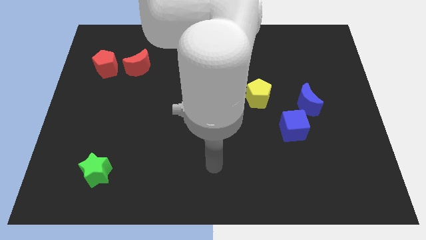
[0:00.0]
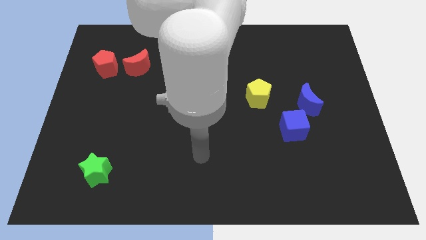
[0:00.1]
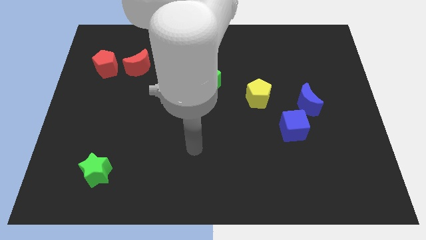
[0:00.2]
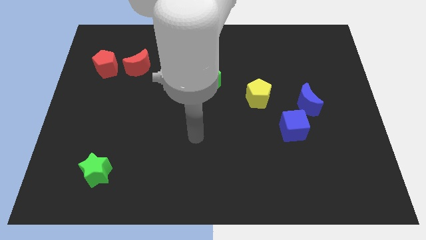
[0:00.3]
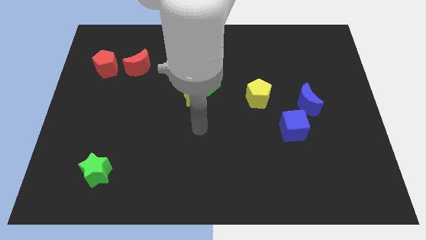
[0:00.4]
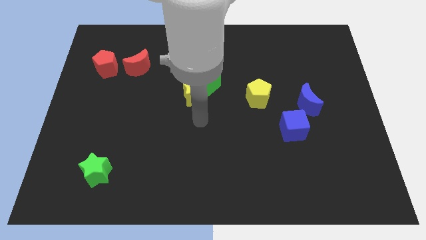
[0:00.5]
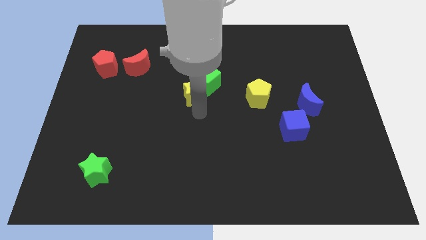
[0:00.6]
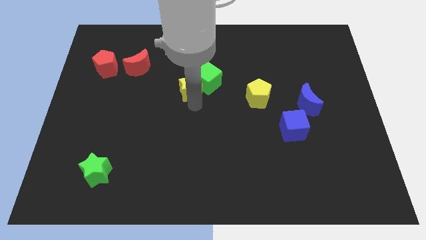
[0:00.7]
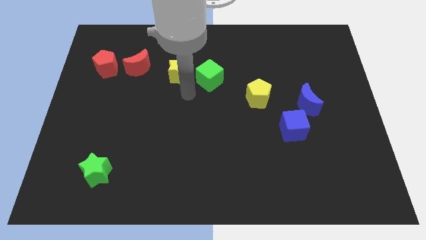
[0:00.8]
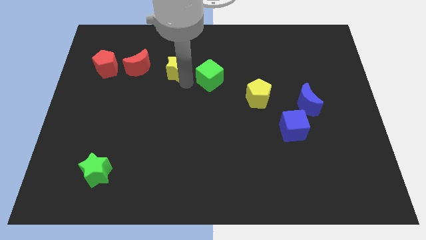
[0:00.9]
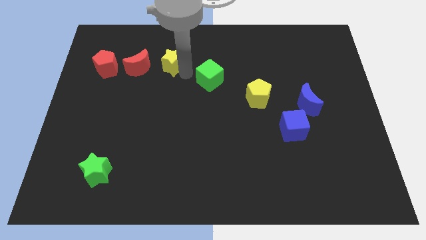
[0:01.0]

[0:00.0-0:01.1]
move the green cube away from the yellow star

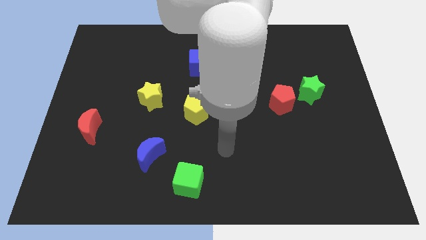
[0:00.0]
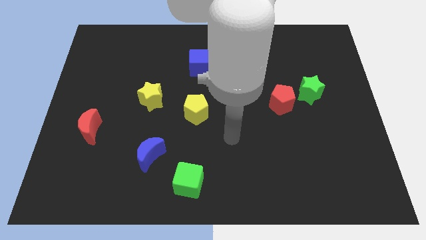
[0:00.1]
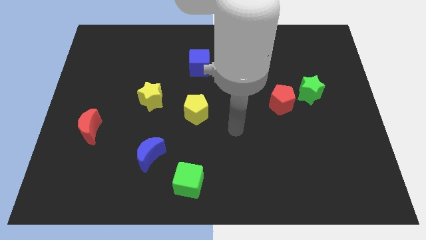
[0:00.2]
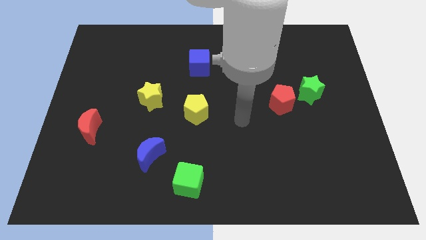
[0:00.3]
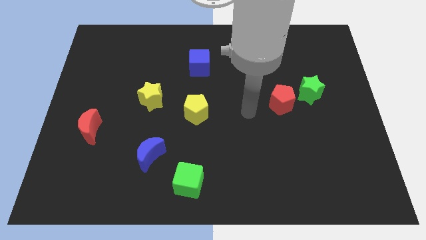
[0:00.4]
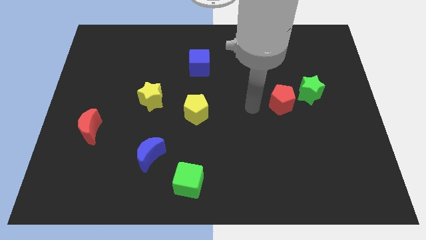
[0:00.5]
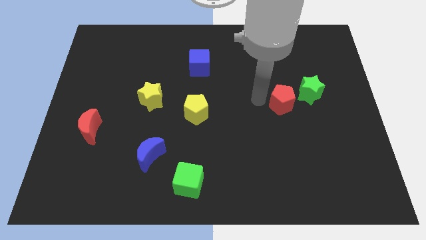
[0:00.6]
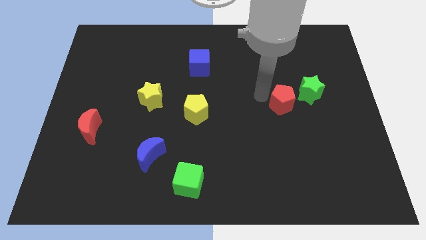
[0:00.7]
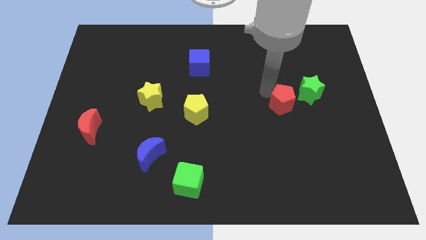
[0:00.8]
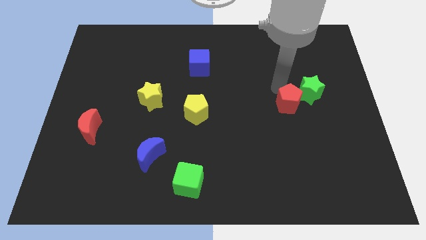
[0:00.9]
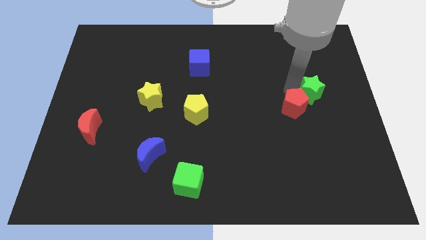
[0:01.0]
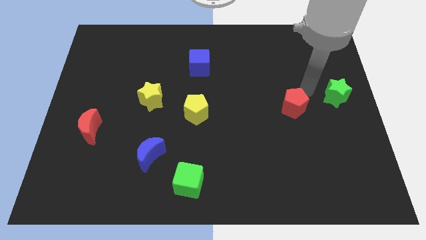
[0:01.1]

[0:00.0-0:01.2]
separate the red pentagon from the green star

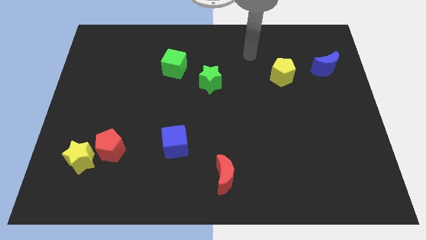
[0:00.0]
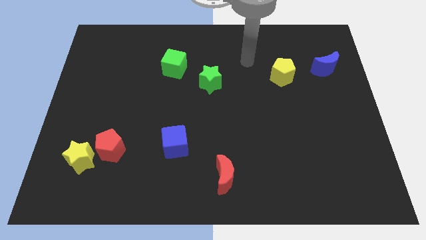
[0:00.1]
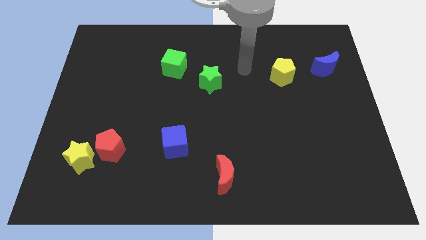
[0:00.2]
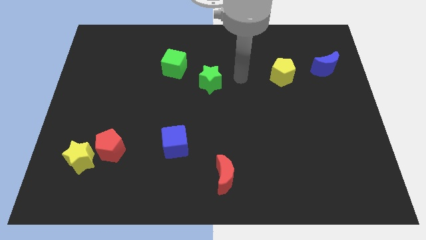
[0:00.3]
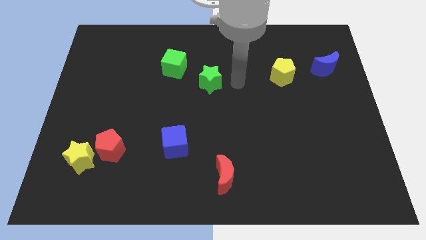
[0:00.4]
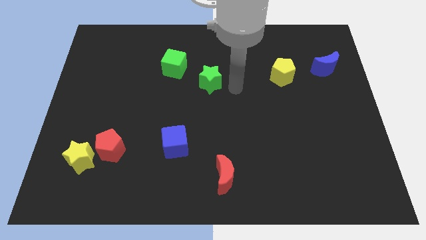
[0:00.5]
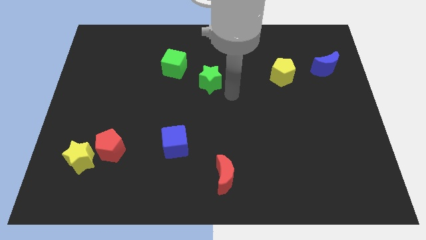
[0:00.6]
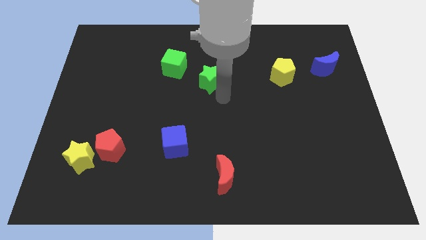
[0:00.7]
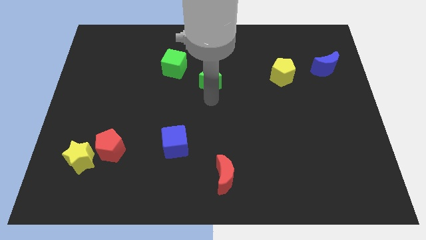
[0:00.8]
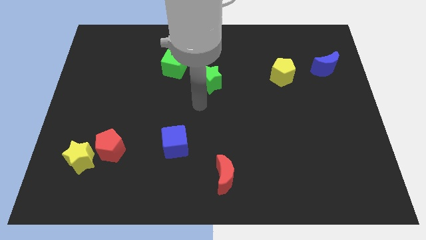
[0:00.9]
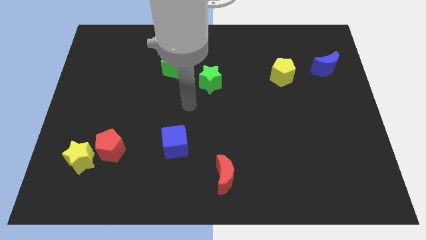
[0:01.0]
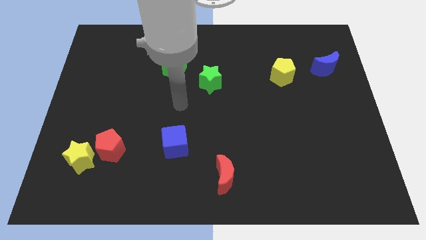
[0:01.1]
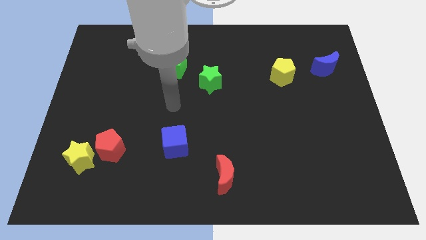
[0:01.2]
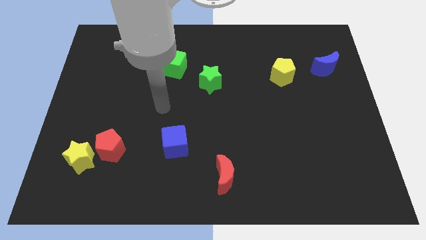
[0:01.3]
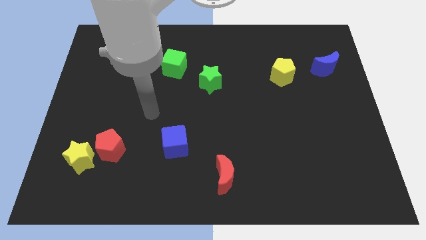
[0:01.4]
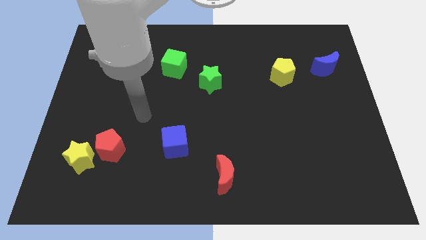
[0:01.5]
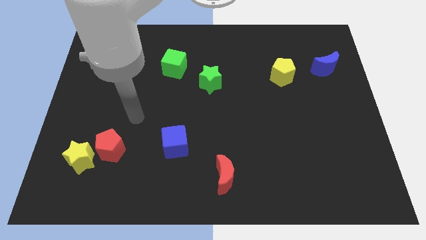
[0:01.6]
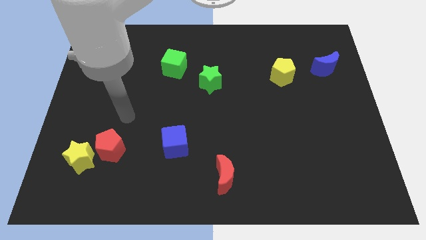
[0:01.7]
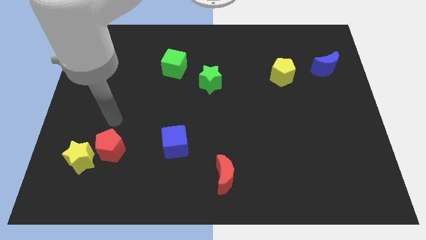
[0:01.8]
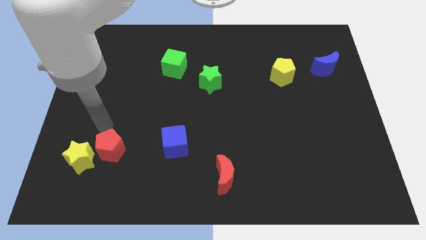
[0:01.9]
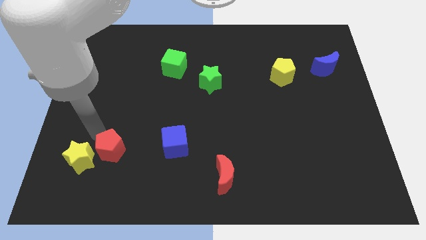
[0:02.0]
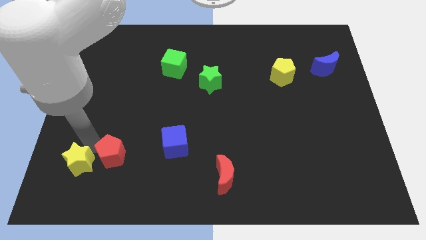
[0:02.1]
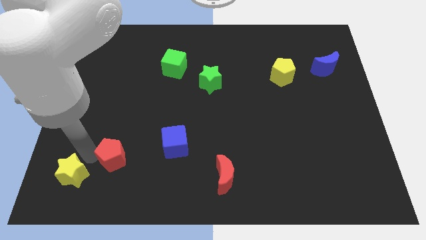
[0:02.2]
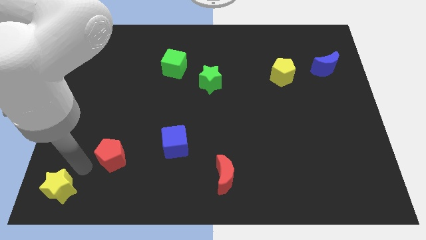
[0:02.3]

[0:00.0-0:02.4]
separate the red pentagon from the yellow star

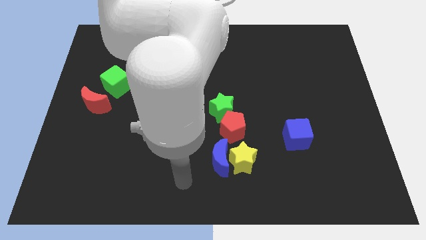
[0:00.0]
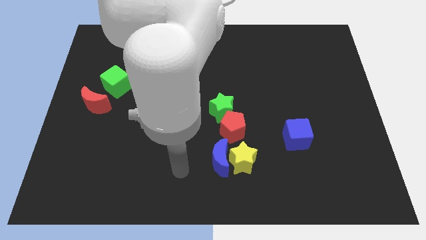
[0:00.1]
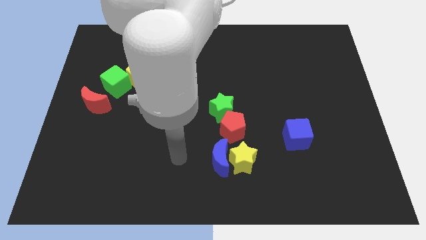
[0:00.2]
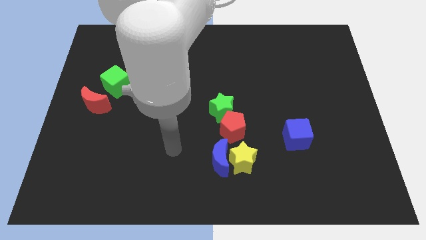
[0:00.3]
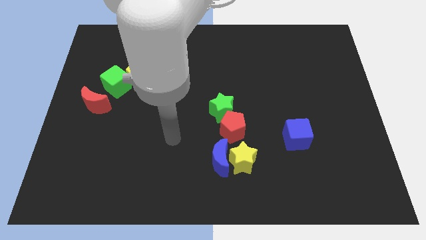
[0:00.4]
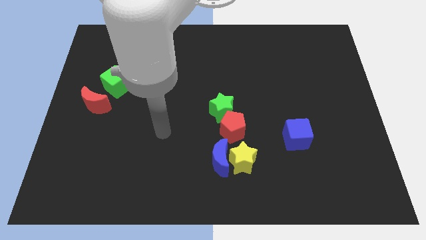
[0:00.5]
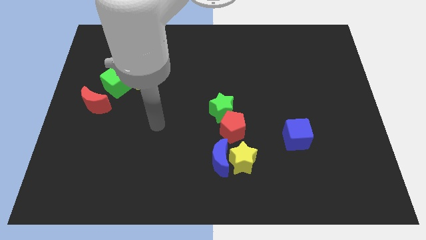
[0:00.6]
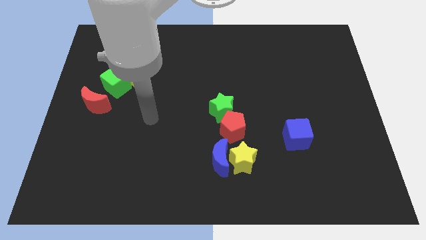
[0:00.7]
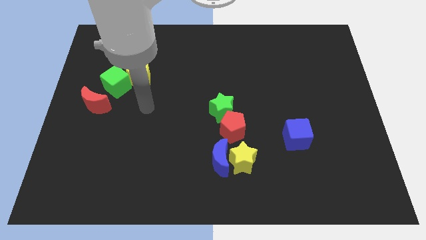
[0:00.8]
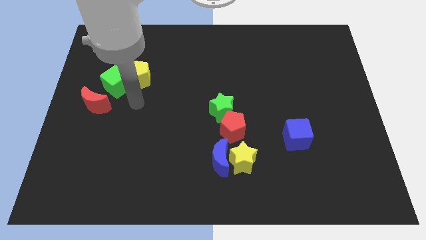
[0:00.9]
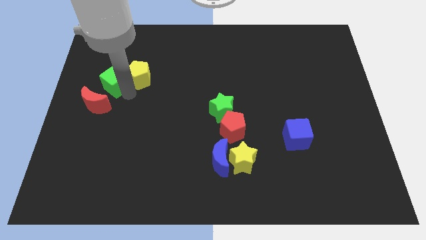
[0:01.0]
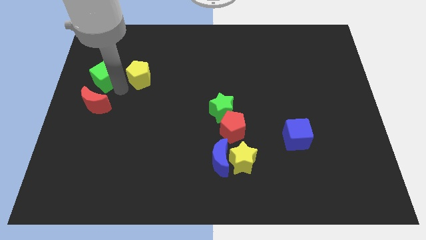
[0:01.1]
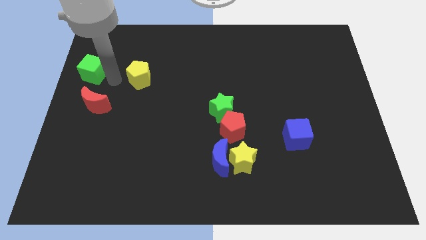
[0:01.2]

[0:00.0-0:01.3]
move the yellow pentagon away from the green cube

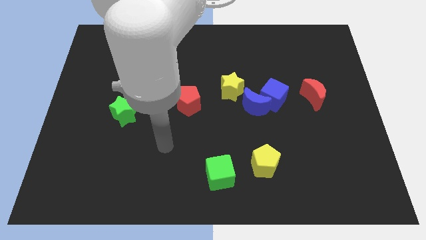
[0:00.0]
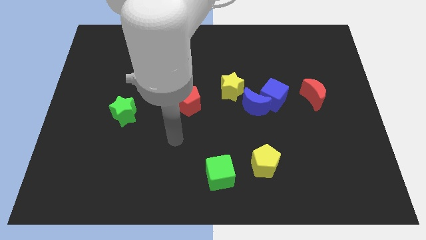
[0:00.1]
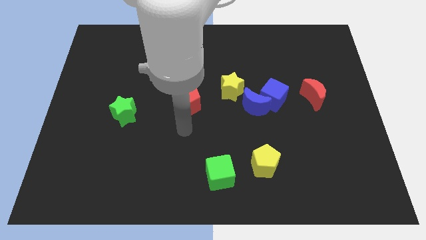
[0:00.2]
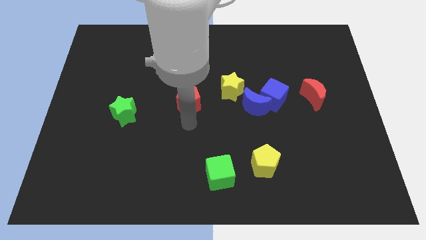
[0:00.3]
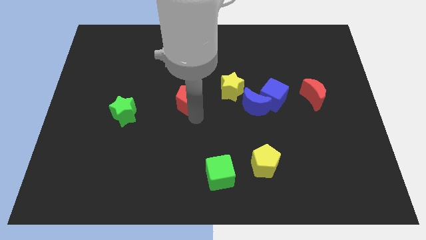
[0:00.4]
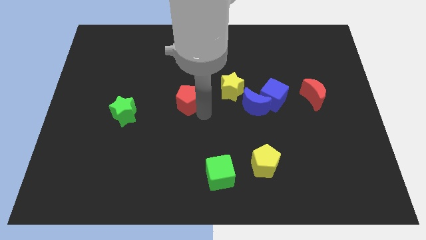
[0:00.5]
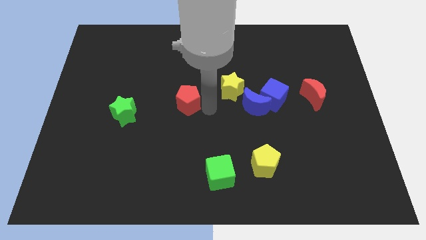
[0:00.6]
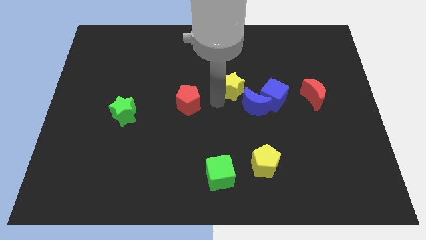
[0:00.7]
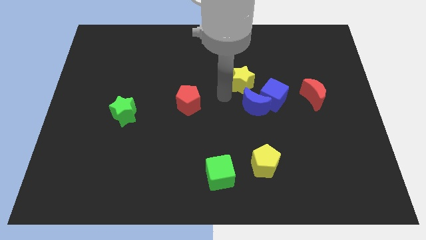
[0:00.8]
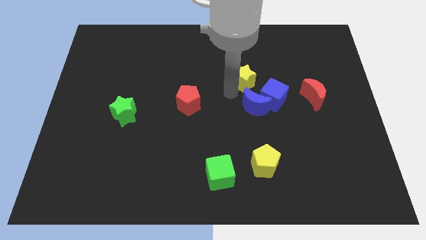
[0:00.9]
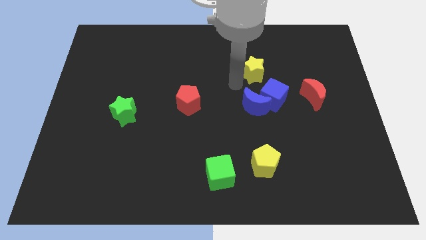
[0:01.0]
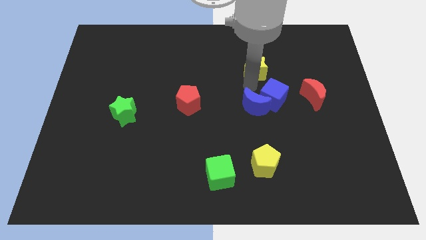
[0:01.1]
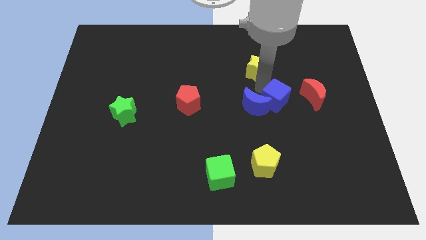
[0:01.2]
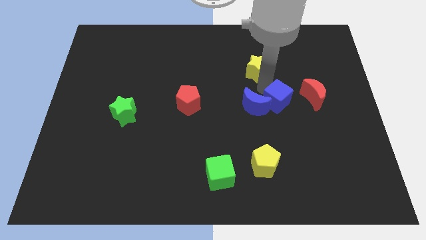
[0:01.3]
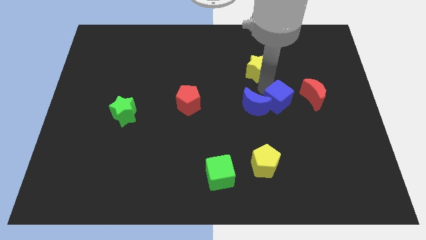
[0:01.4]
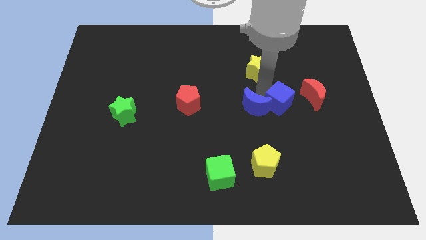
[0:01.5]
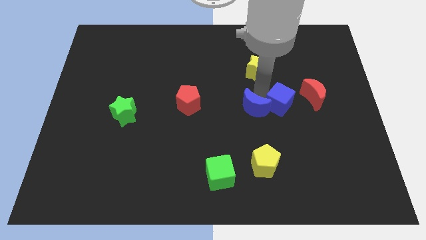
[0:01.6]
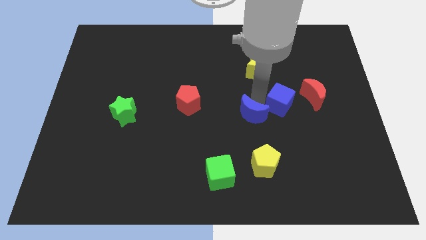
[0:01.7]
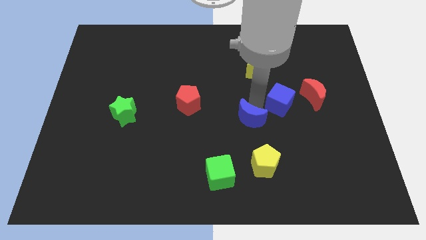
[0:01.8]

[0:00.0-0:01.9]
separate the blue moon from the blue cube and yellow star

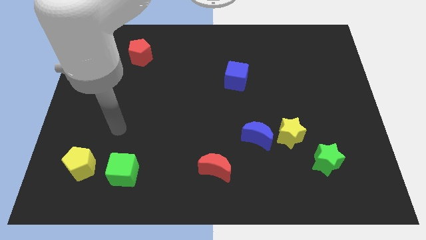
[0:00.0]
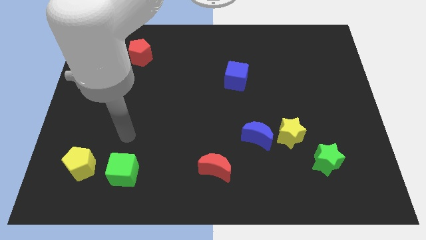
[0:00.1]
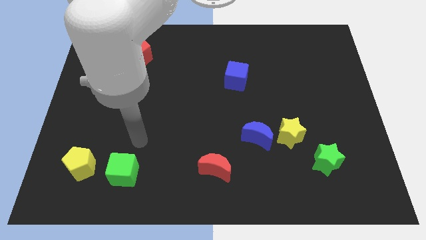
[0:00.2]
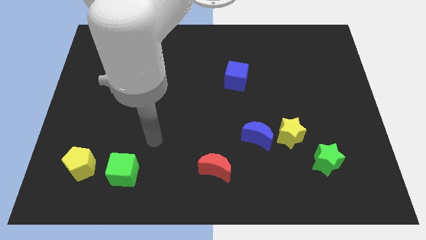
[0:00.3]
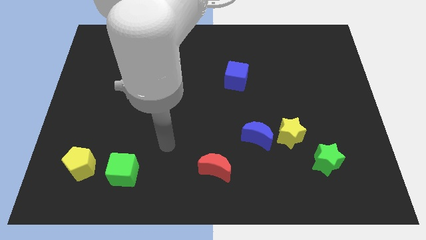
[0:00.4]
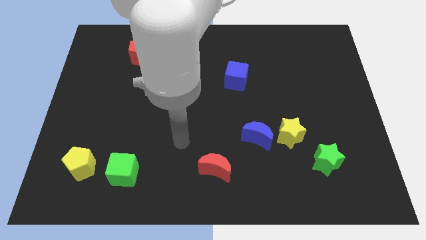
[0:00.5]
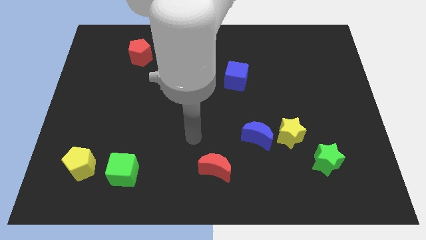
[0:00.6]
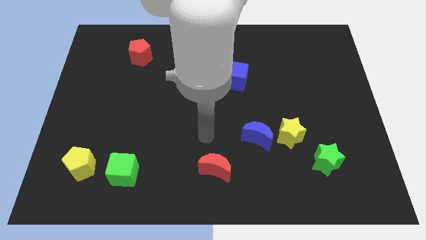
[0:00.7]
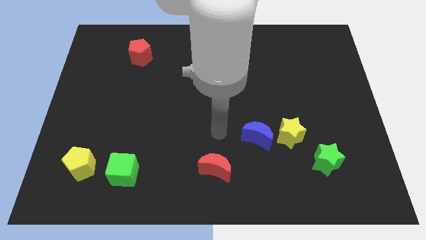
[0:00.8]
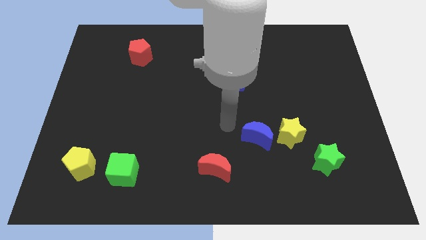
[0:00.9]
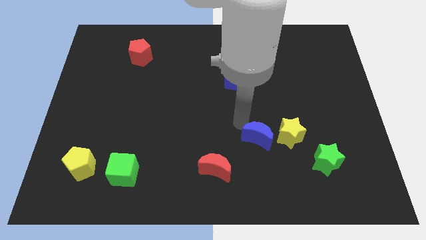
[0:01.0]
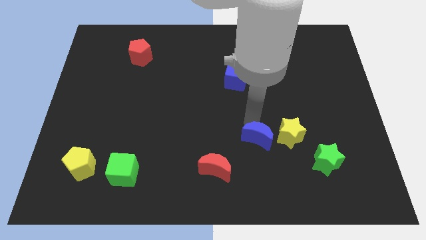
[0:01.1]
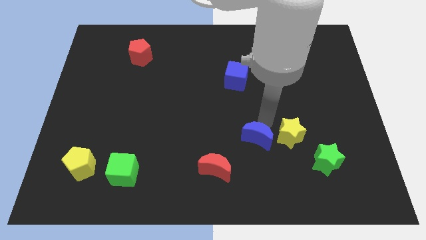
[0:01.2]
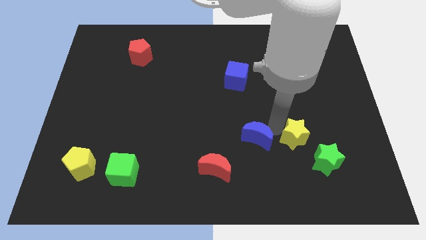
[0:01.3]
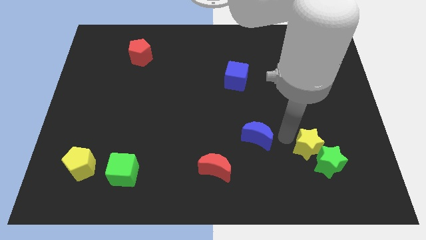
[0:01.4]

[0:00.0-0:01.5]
move the blue moon away from the yellow star
